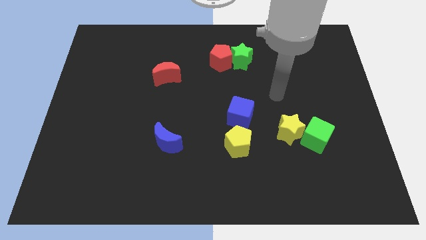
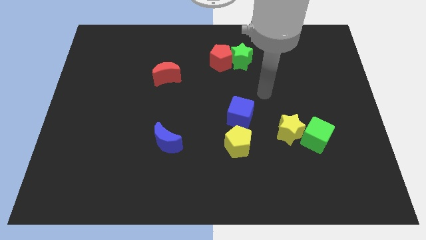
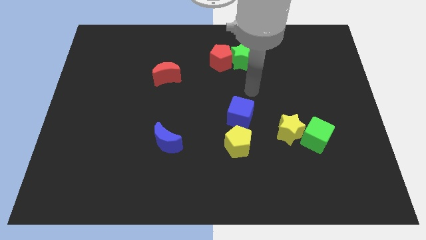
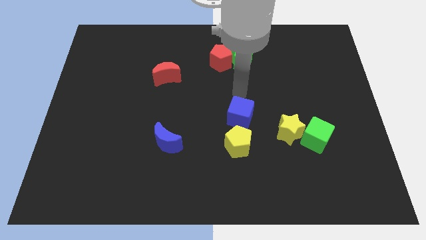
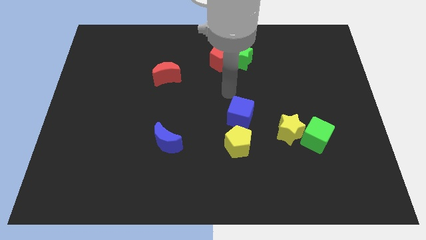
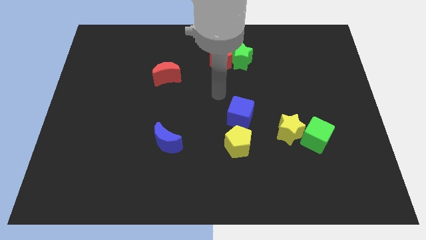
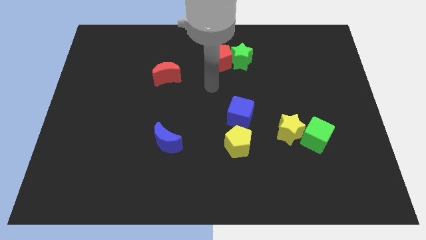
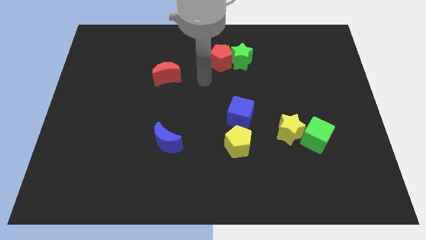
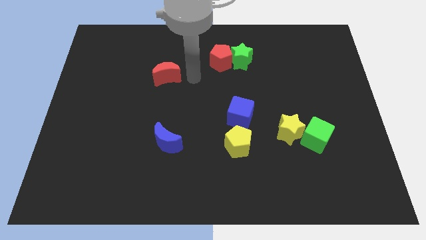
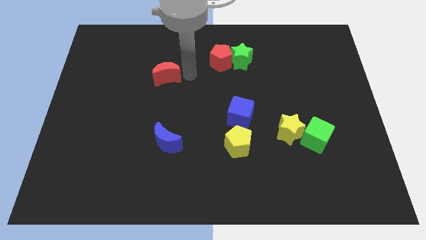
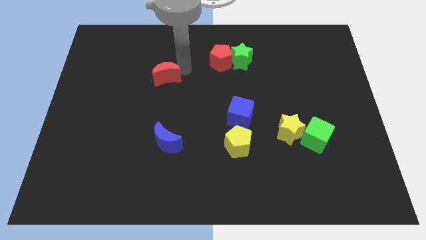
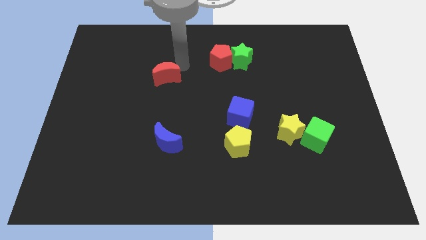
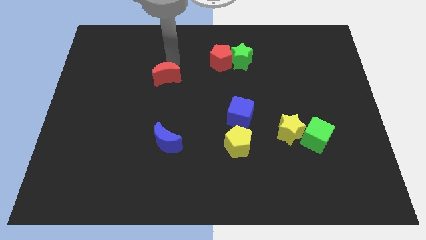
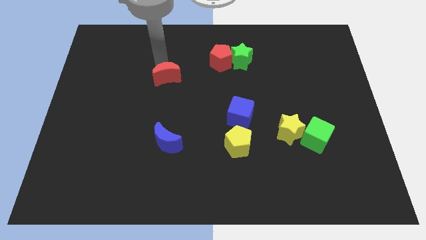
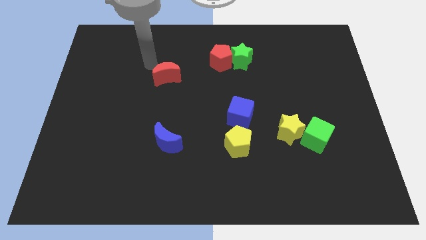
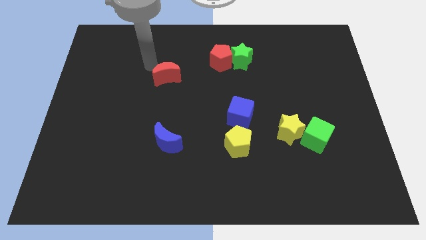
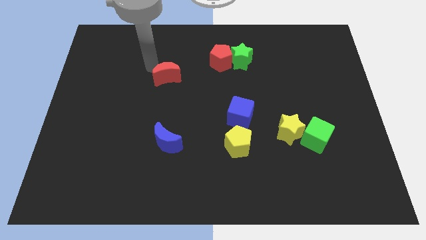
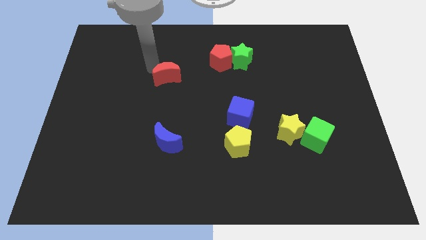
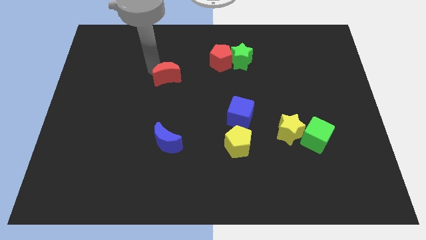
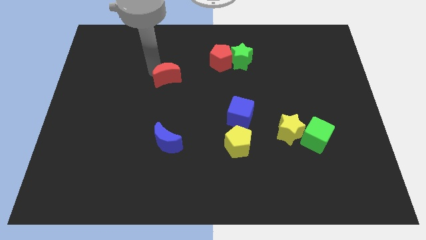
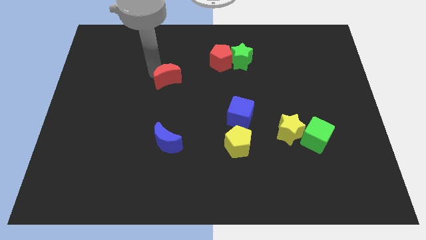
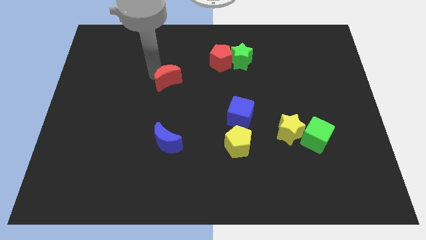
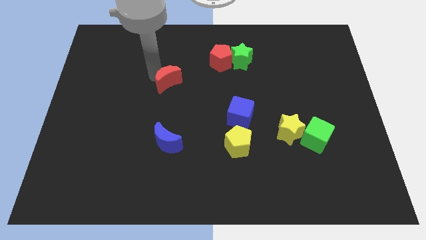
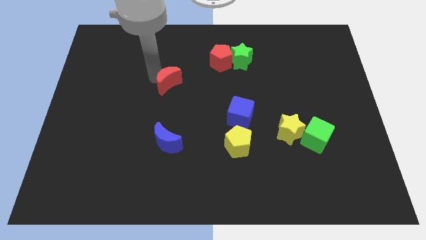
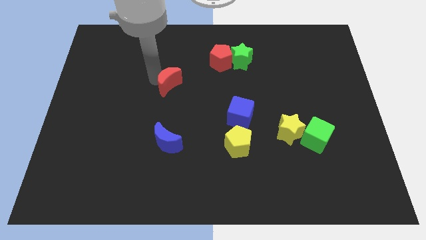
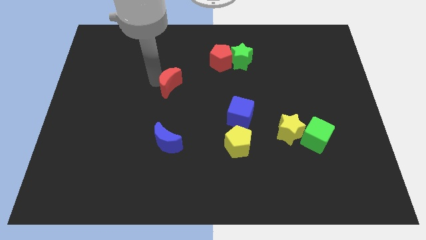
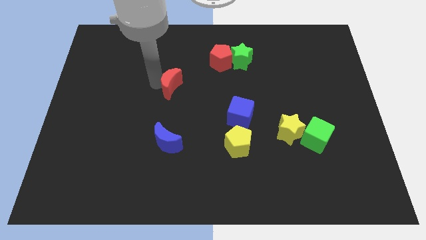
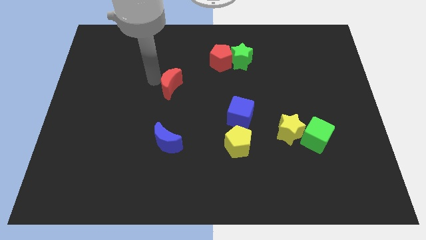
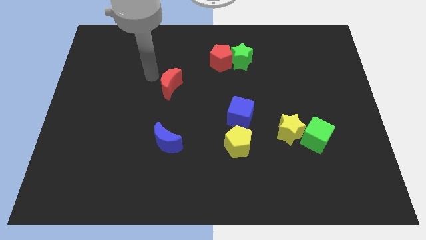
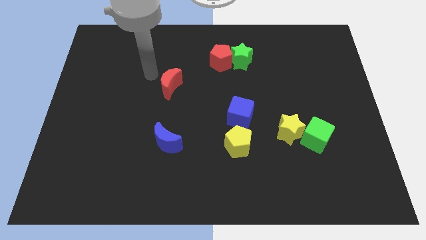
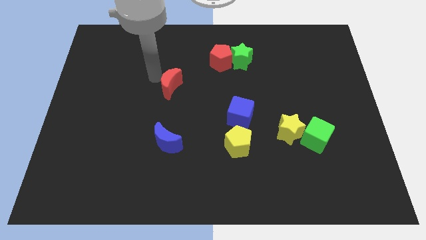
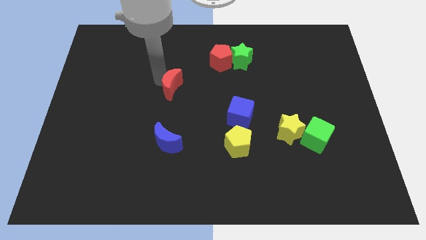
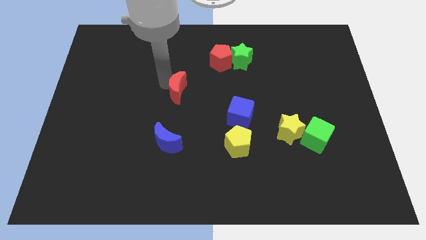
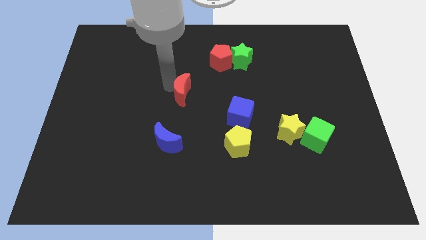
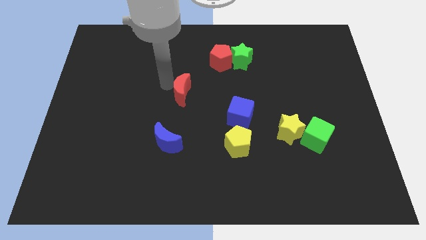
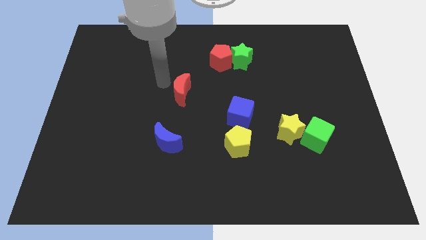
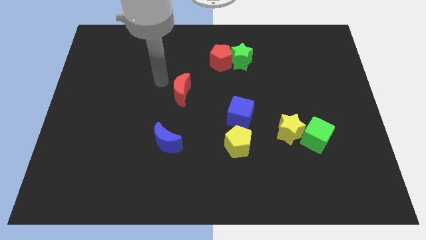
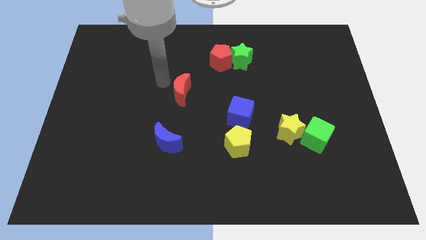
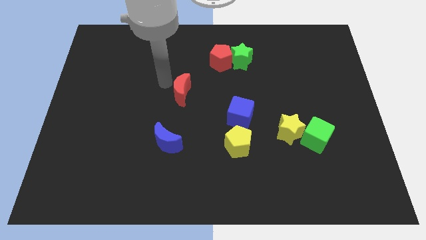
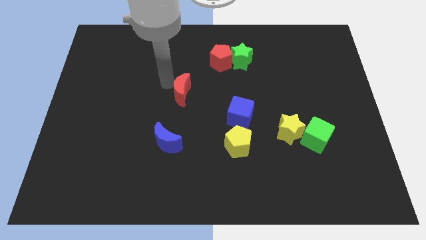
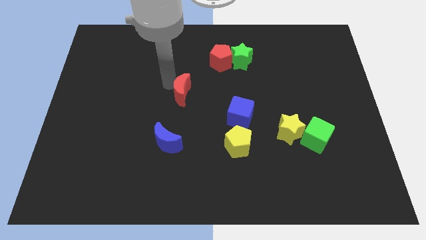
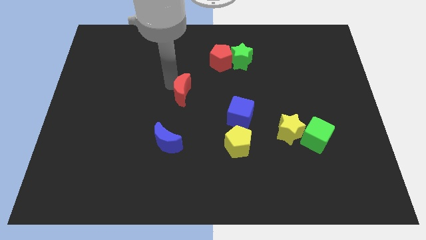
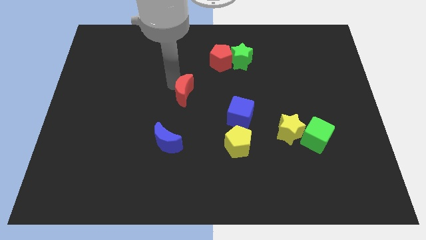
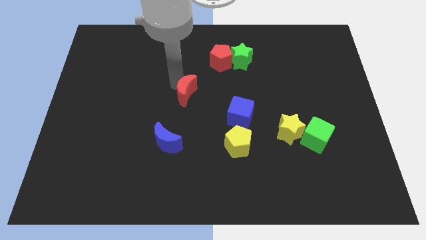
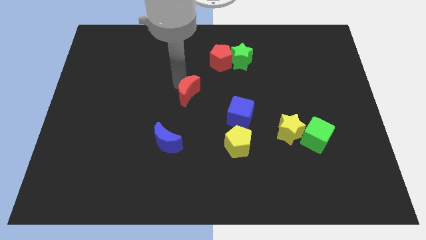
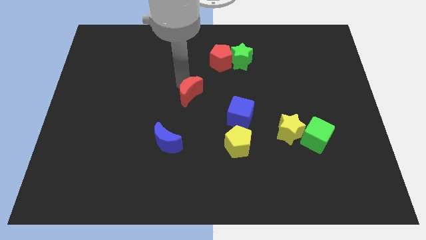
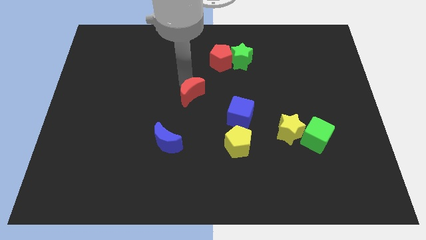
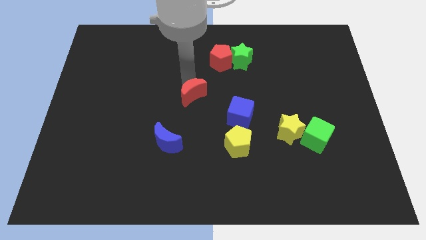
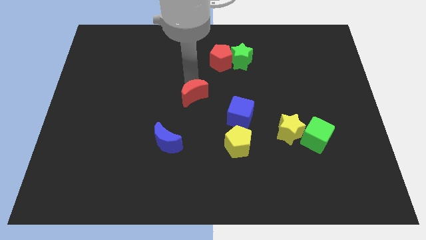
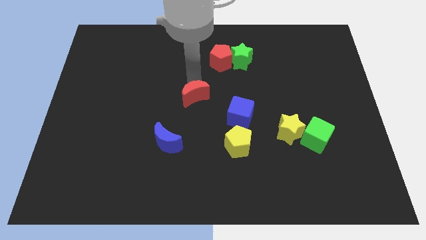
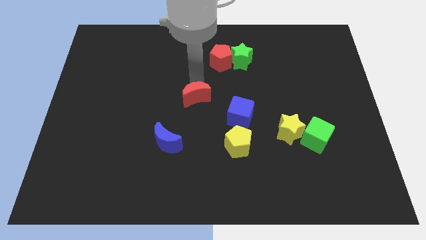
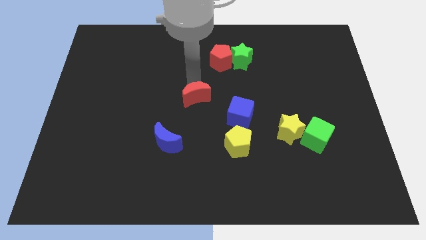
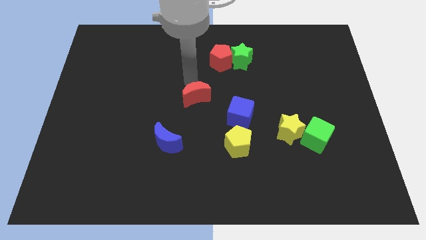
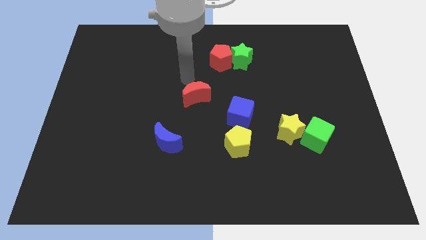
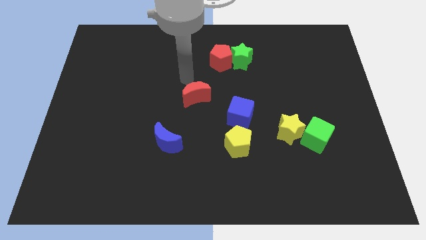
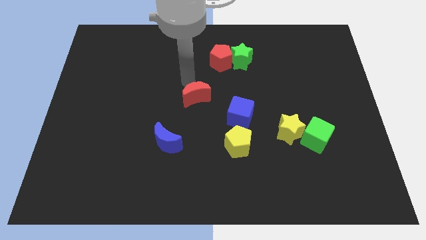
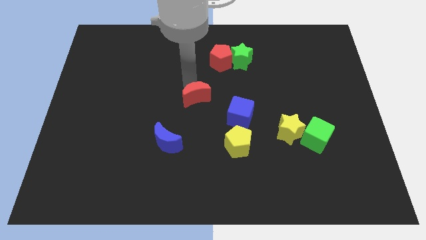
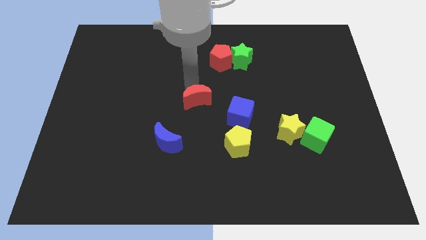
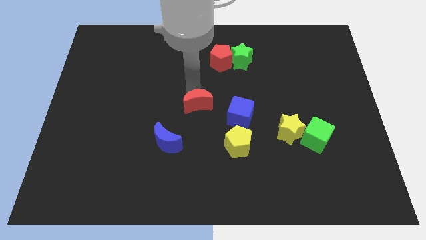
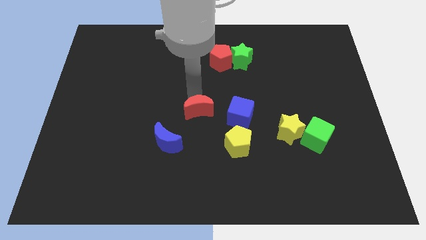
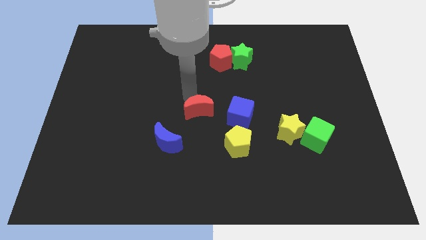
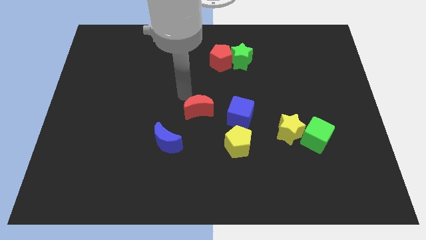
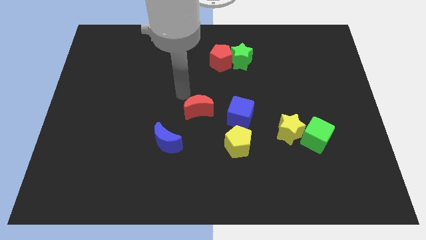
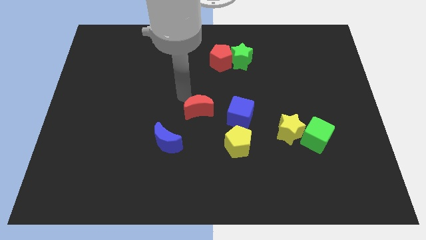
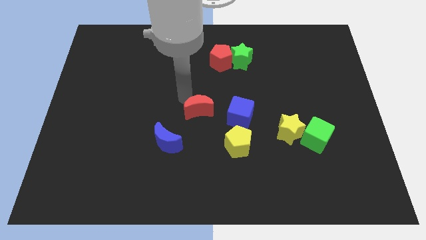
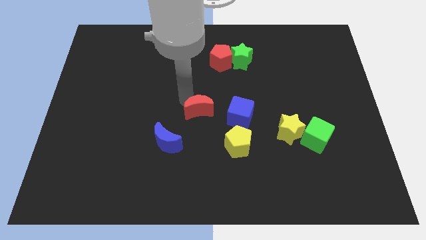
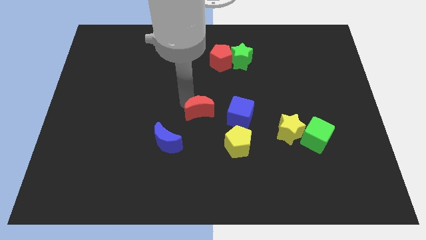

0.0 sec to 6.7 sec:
slide the red moon diagonally up and to the left of the yellow pentagon
